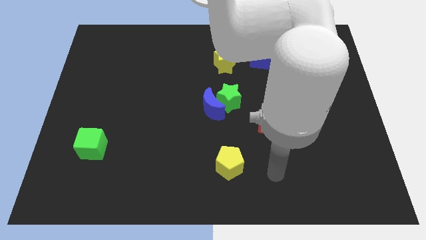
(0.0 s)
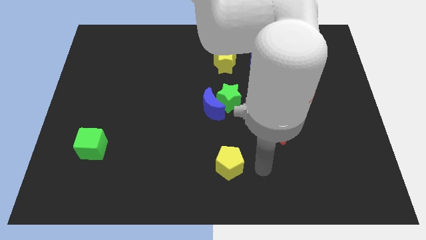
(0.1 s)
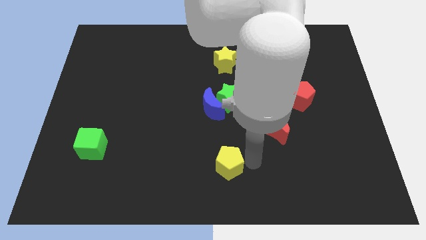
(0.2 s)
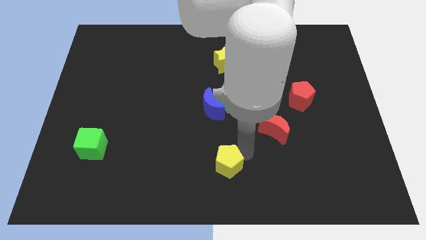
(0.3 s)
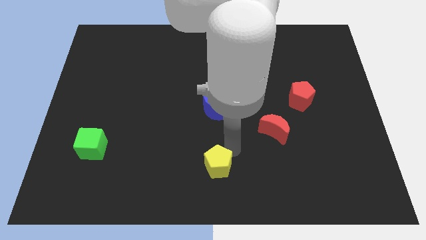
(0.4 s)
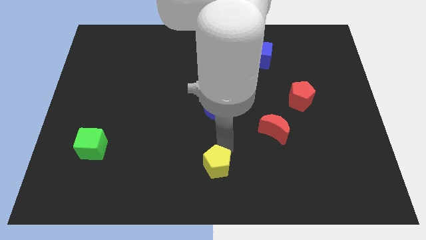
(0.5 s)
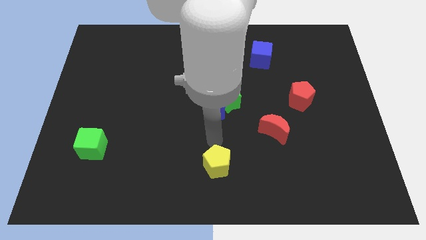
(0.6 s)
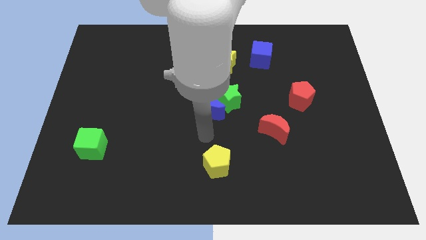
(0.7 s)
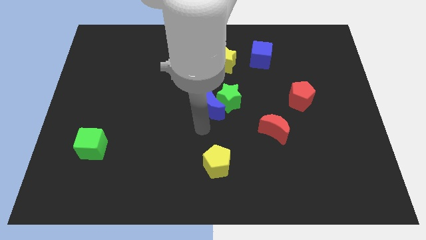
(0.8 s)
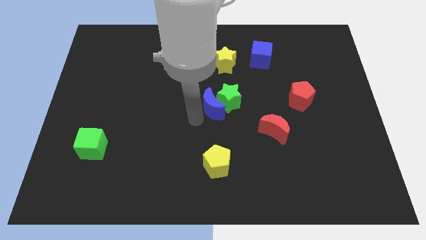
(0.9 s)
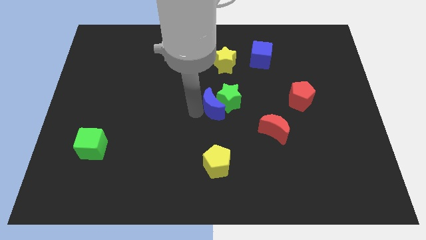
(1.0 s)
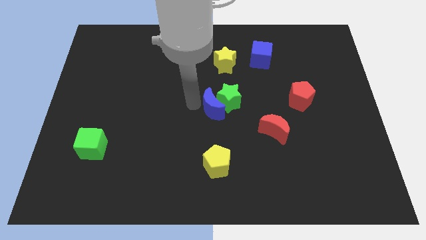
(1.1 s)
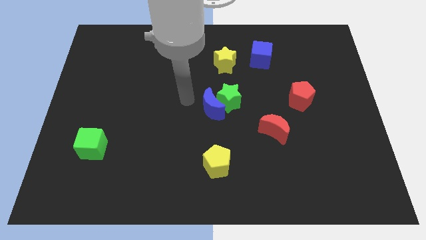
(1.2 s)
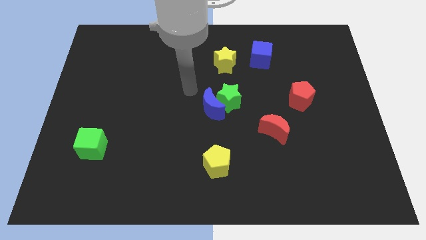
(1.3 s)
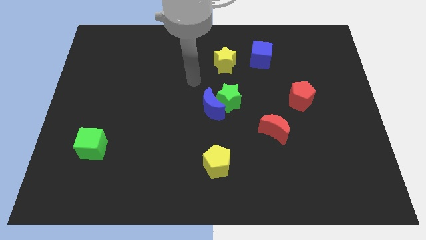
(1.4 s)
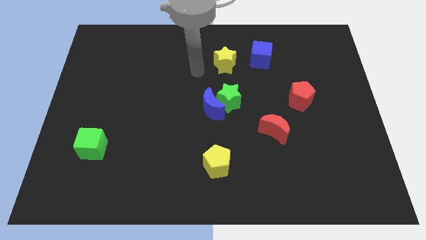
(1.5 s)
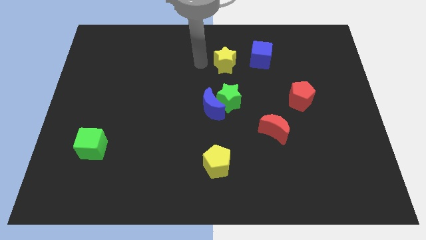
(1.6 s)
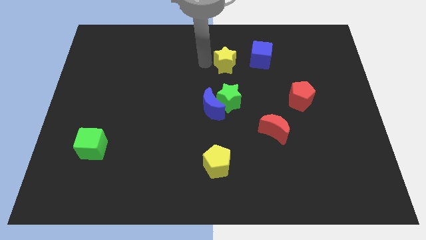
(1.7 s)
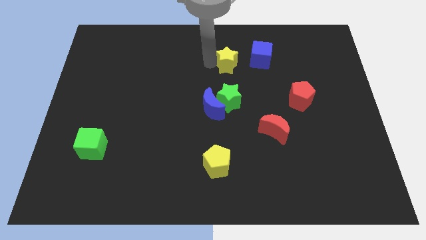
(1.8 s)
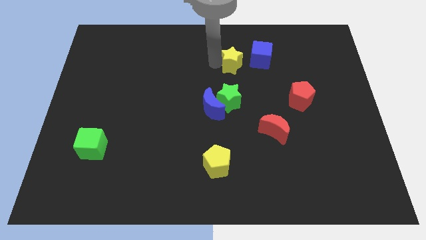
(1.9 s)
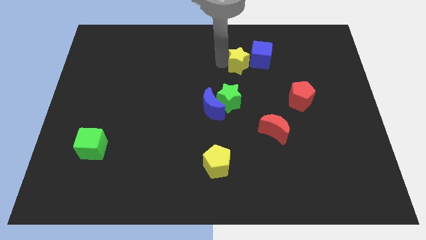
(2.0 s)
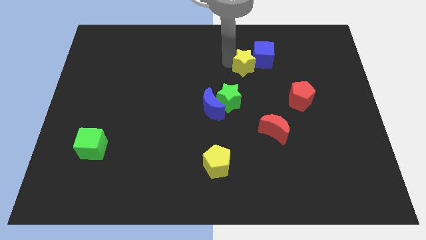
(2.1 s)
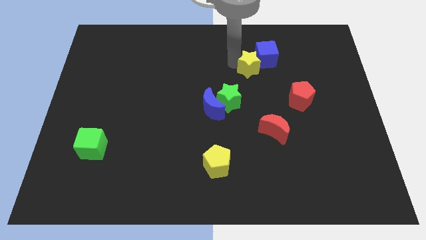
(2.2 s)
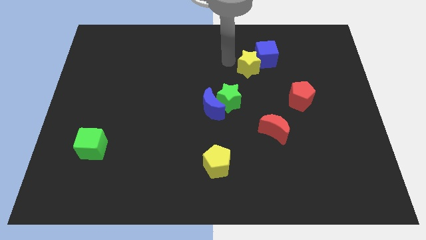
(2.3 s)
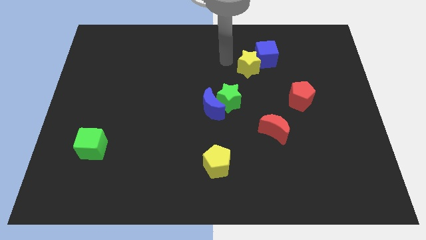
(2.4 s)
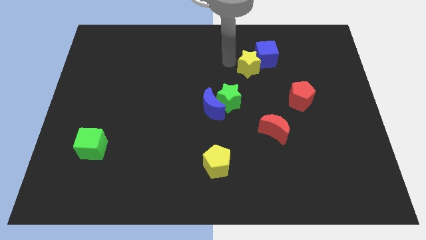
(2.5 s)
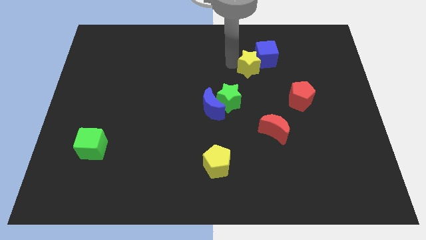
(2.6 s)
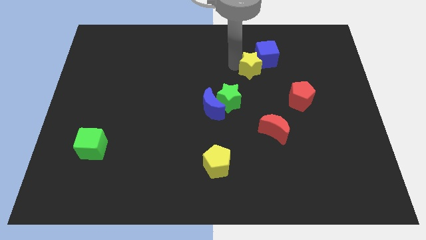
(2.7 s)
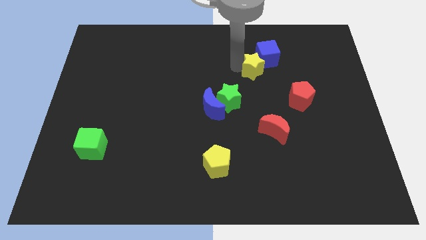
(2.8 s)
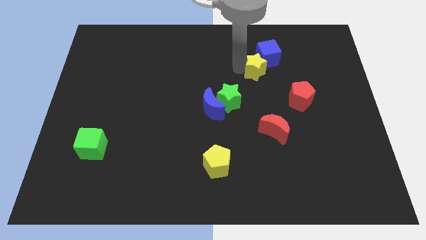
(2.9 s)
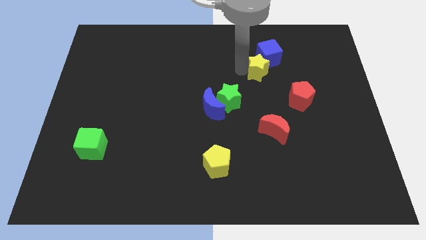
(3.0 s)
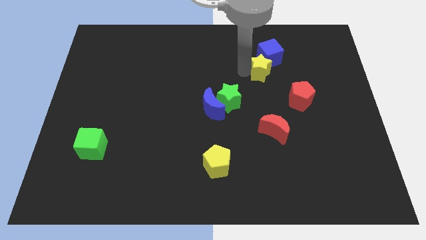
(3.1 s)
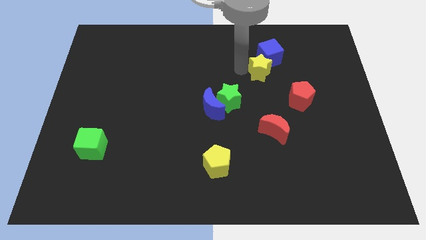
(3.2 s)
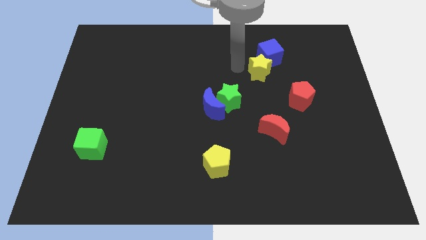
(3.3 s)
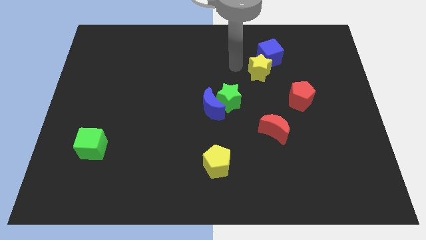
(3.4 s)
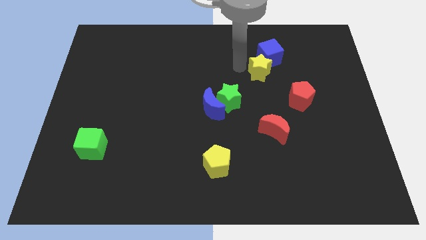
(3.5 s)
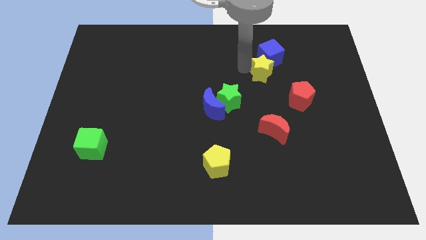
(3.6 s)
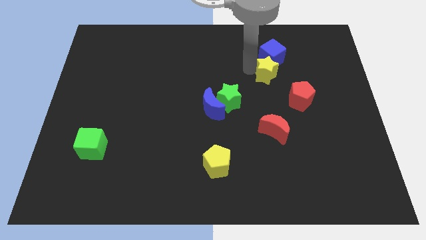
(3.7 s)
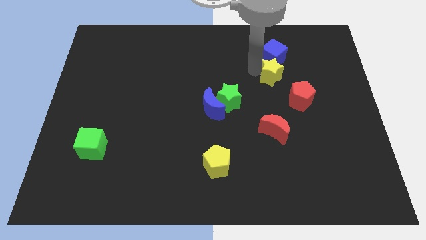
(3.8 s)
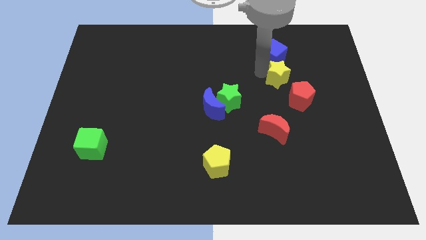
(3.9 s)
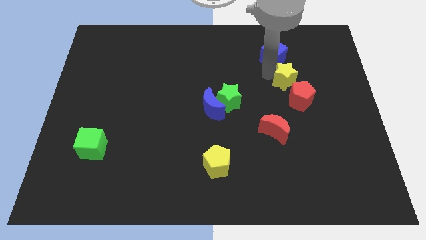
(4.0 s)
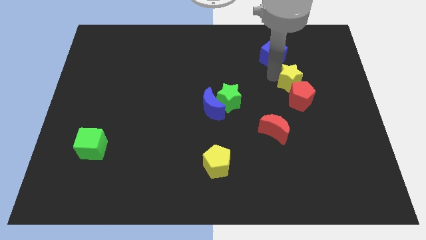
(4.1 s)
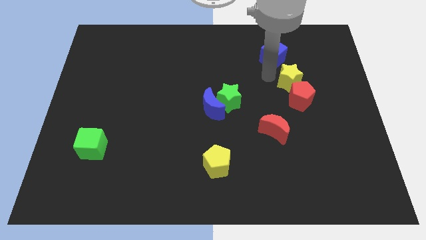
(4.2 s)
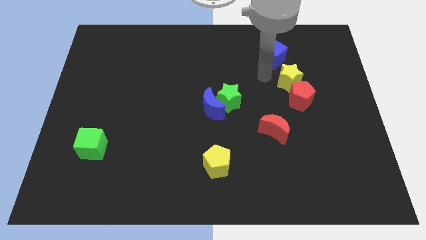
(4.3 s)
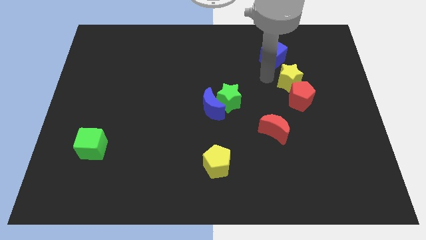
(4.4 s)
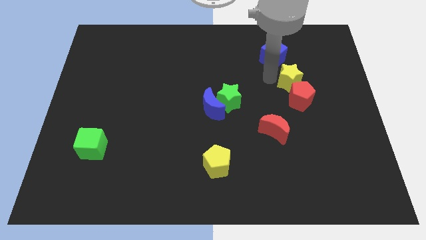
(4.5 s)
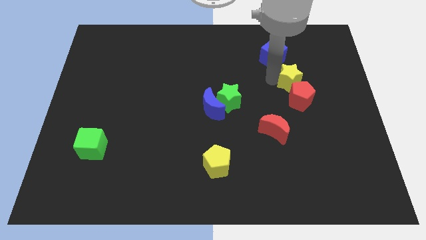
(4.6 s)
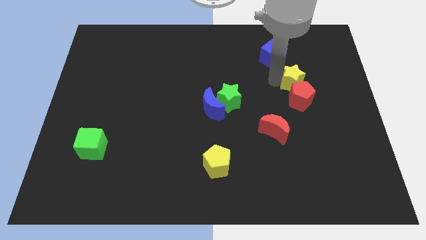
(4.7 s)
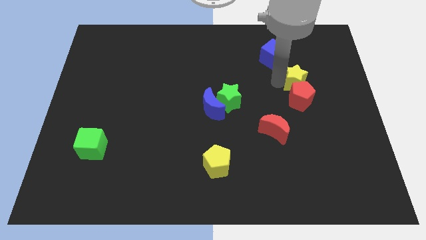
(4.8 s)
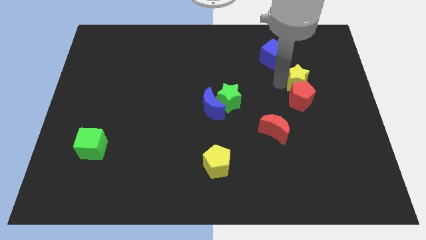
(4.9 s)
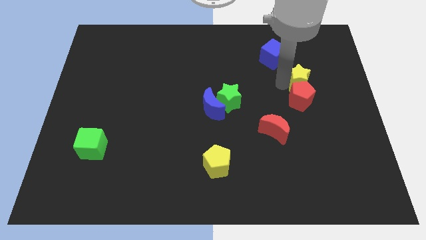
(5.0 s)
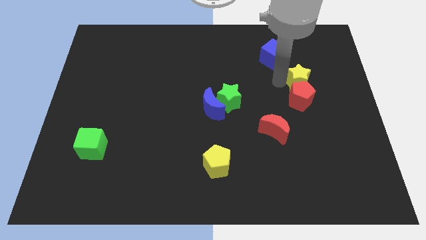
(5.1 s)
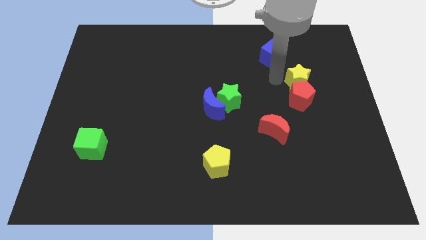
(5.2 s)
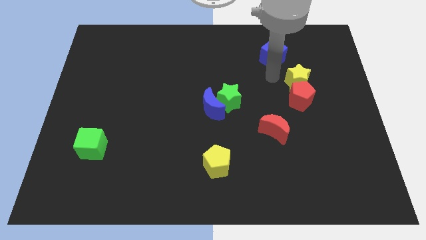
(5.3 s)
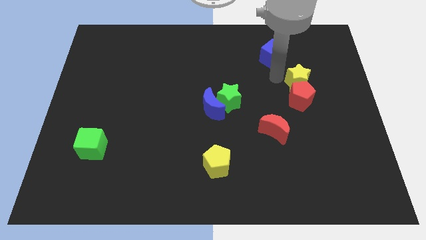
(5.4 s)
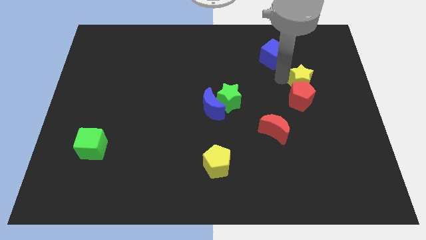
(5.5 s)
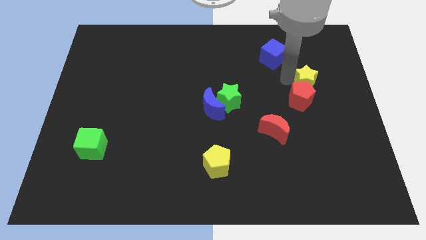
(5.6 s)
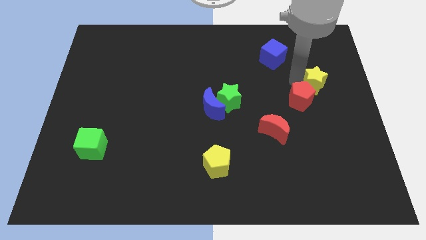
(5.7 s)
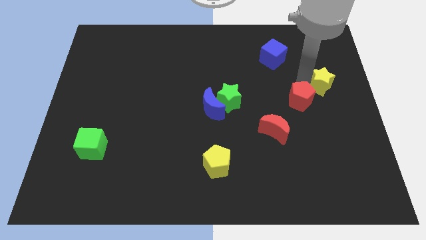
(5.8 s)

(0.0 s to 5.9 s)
move the yellow star to the center right

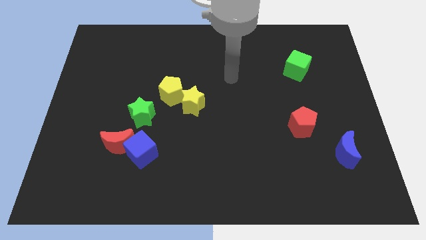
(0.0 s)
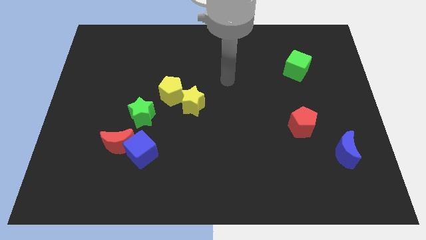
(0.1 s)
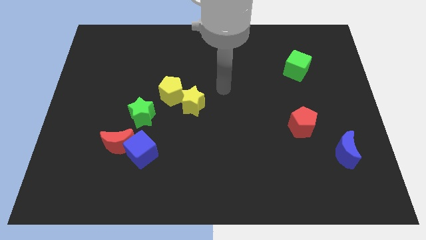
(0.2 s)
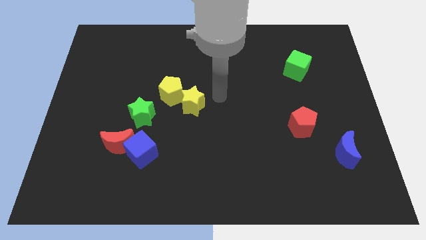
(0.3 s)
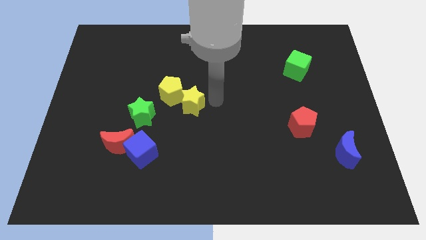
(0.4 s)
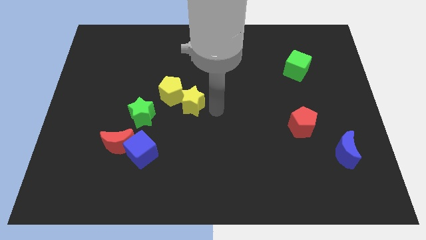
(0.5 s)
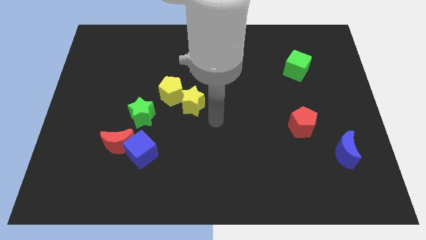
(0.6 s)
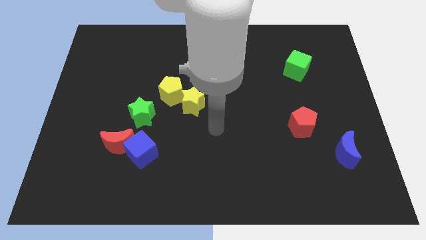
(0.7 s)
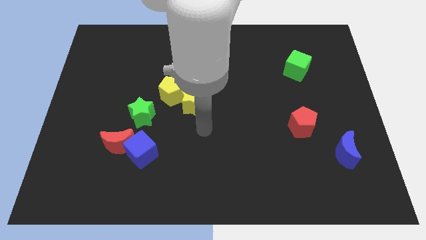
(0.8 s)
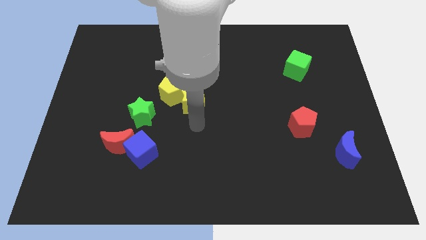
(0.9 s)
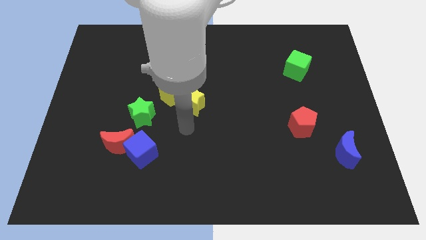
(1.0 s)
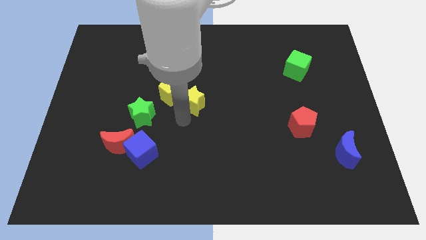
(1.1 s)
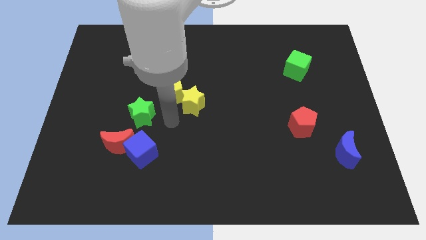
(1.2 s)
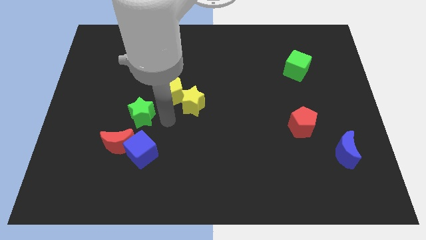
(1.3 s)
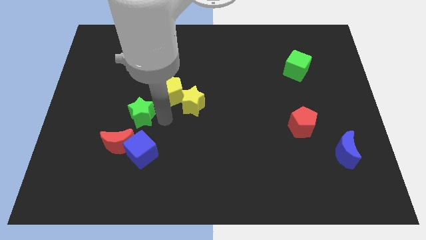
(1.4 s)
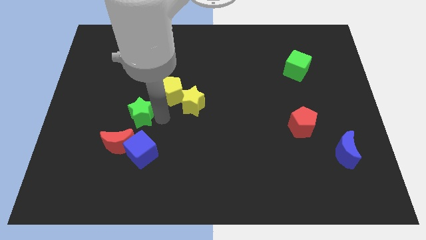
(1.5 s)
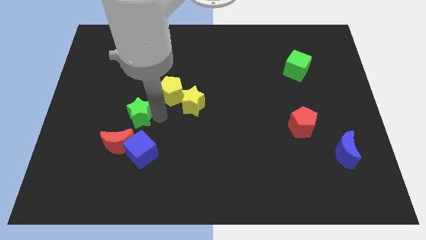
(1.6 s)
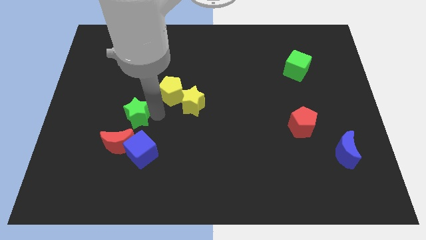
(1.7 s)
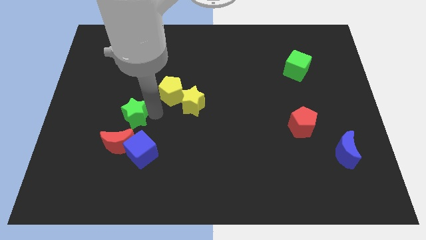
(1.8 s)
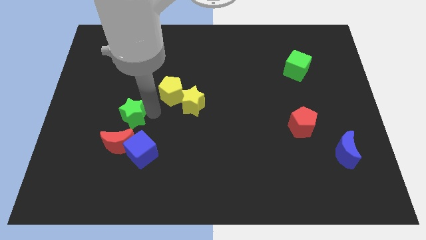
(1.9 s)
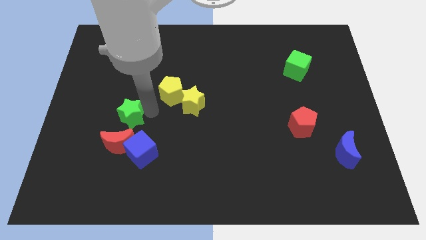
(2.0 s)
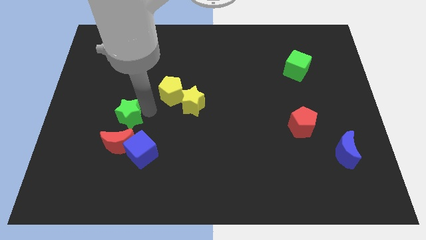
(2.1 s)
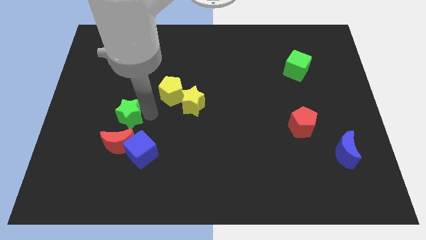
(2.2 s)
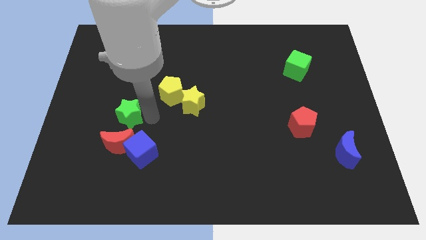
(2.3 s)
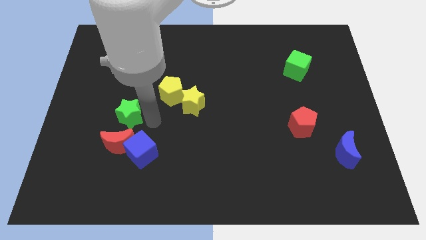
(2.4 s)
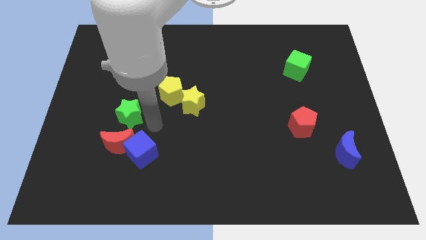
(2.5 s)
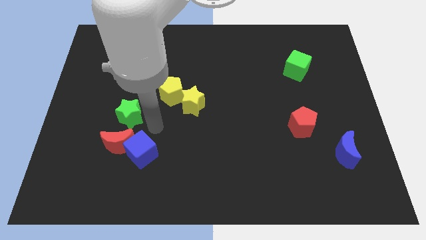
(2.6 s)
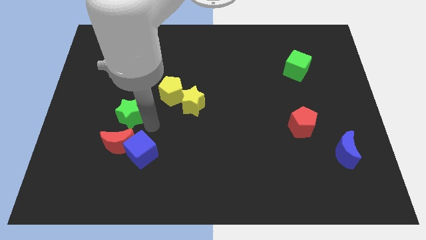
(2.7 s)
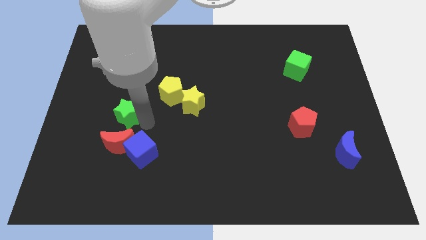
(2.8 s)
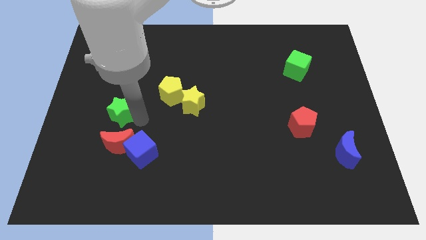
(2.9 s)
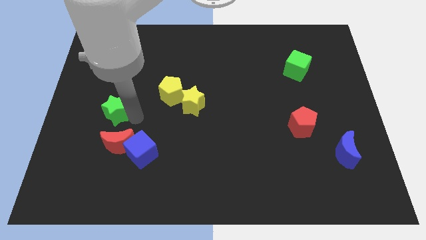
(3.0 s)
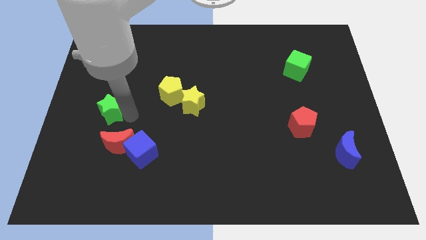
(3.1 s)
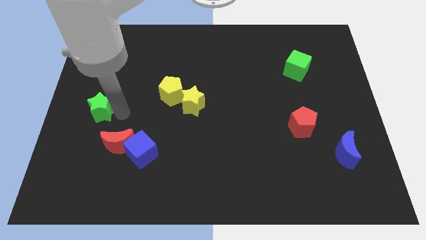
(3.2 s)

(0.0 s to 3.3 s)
slide the green star to the left side of the board
